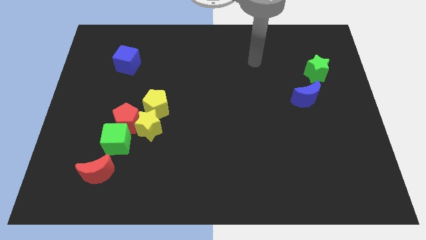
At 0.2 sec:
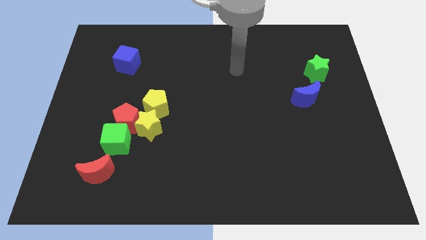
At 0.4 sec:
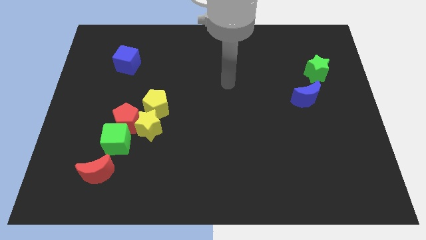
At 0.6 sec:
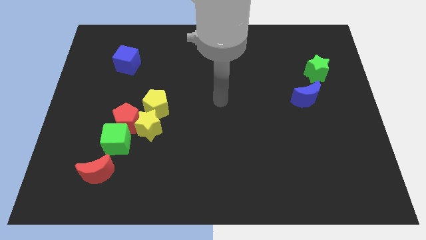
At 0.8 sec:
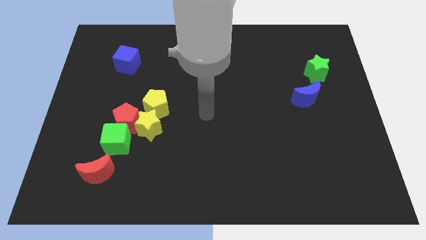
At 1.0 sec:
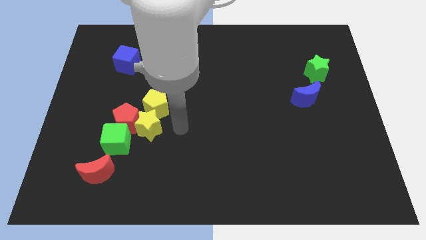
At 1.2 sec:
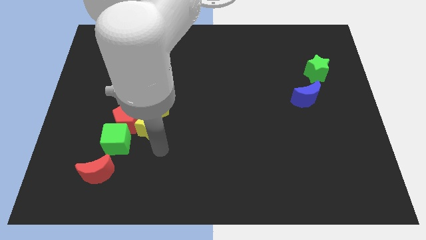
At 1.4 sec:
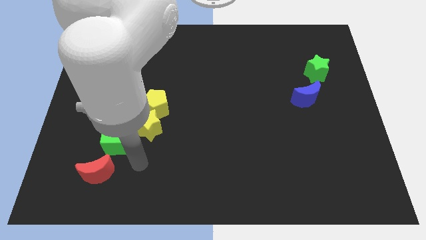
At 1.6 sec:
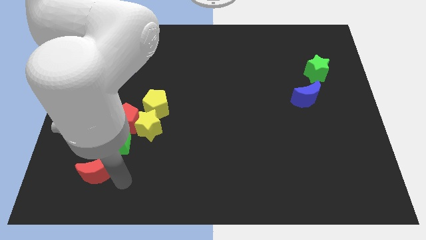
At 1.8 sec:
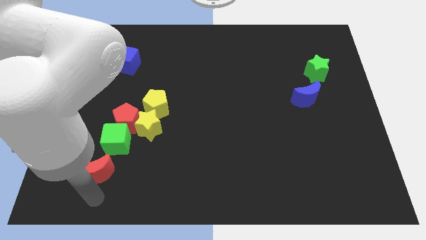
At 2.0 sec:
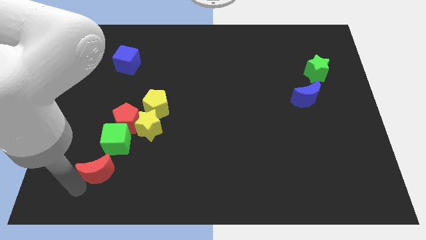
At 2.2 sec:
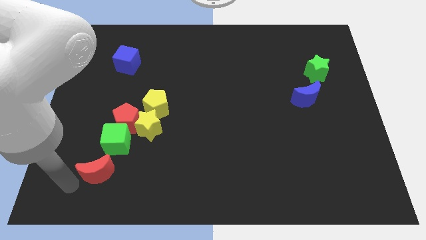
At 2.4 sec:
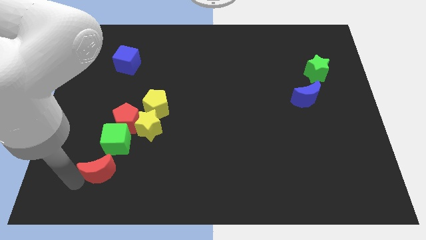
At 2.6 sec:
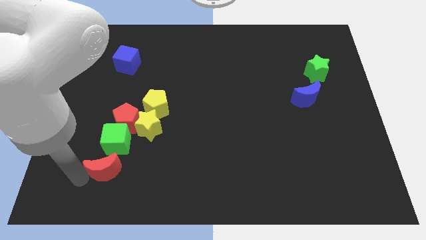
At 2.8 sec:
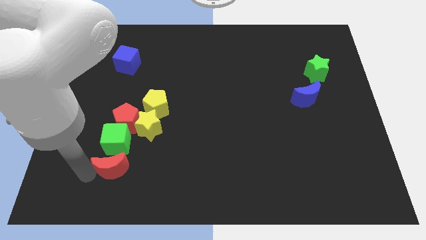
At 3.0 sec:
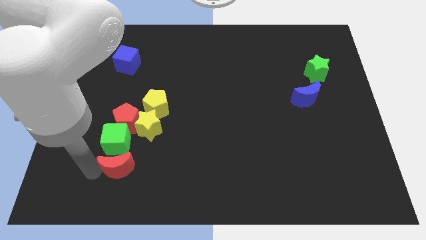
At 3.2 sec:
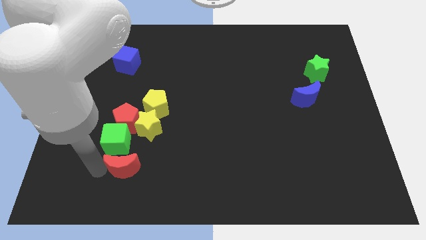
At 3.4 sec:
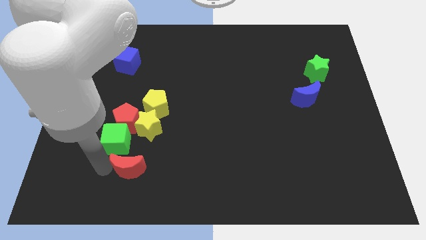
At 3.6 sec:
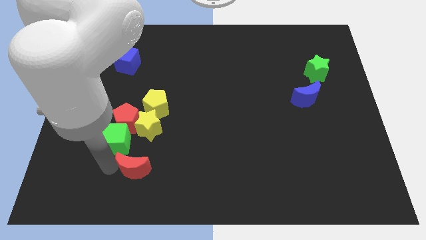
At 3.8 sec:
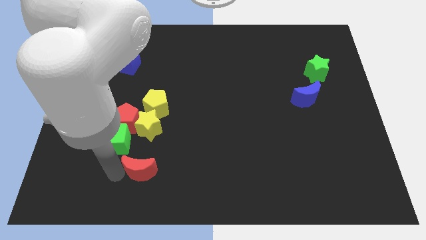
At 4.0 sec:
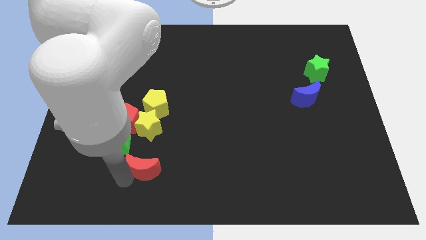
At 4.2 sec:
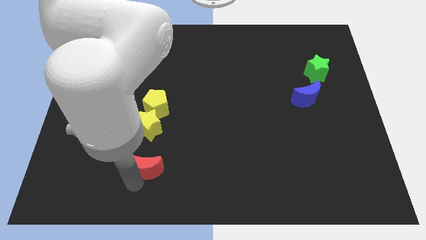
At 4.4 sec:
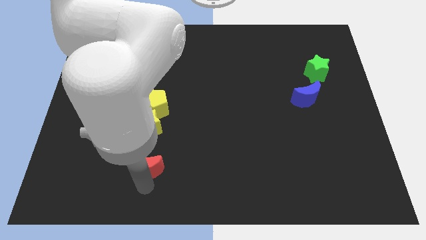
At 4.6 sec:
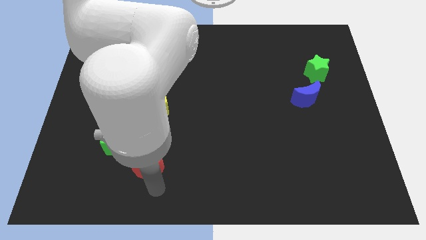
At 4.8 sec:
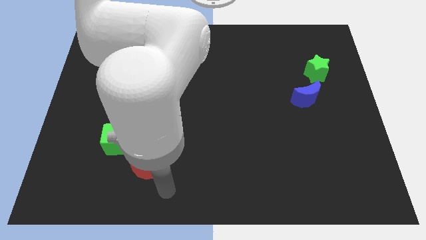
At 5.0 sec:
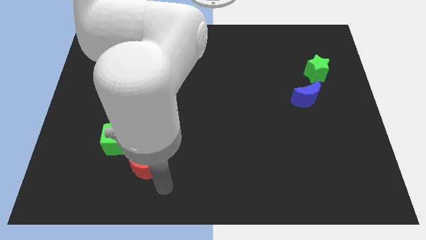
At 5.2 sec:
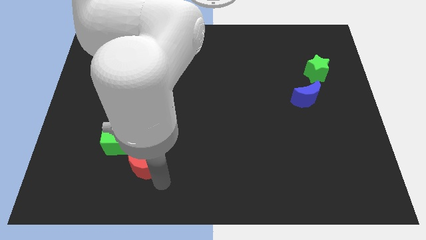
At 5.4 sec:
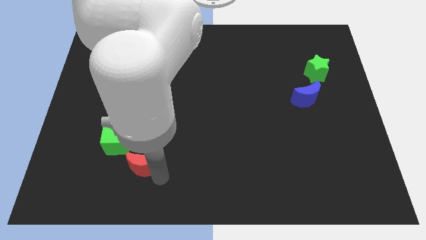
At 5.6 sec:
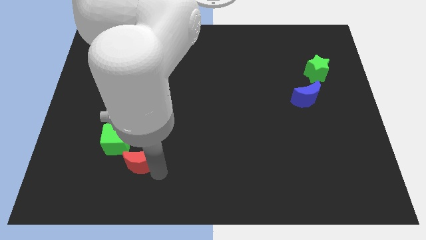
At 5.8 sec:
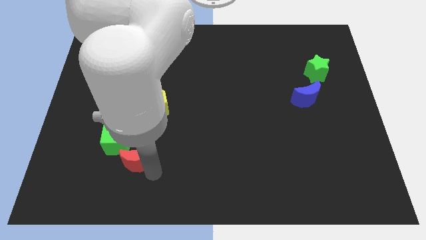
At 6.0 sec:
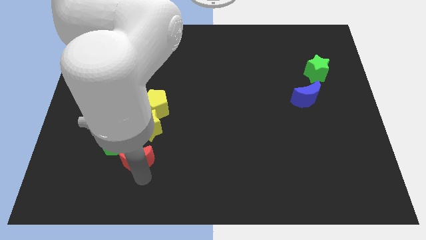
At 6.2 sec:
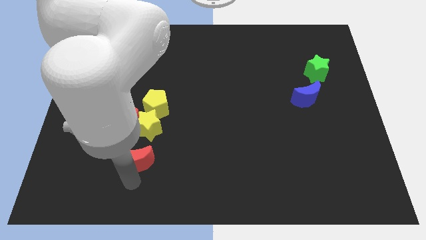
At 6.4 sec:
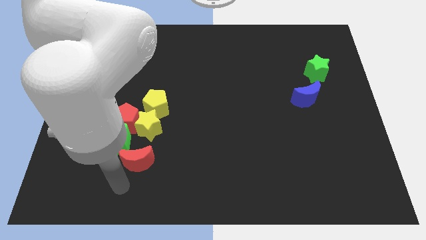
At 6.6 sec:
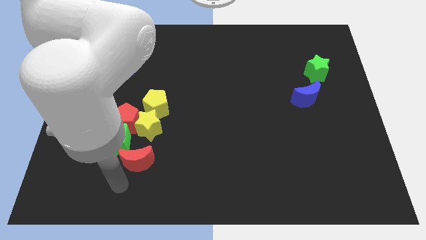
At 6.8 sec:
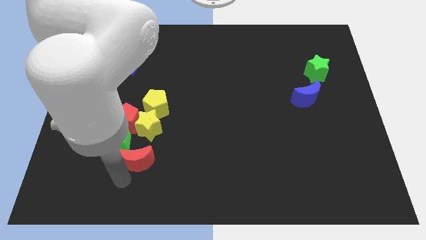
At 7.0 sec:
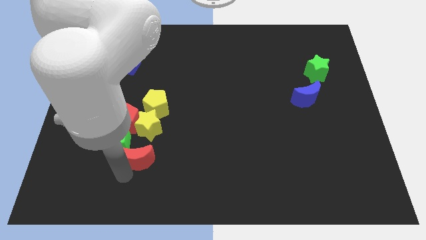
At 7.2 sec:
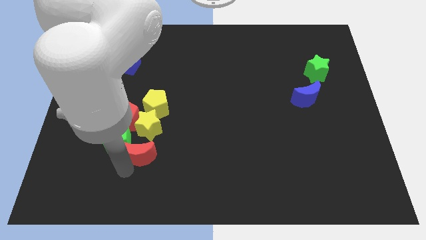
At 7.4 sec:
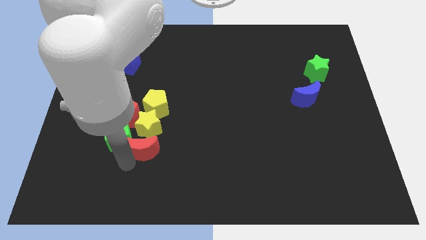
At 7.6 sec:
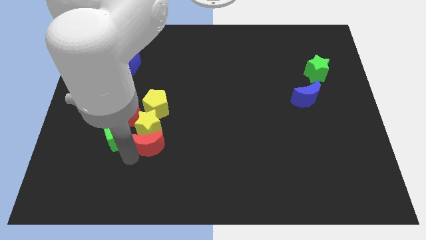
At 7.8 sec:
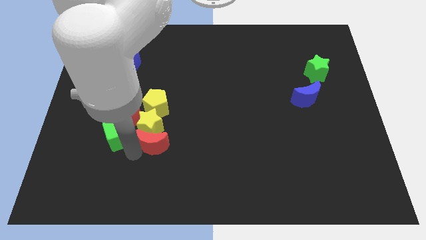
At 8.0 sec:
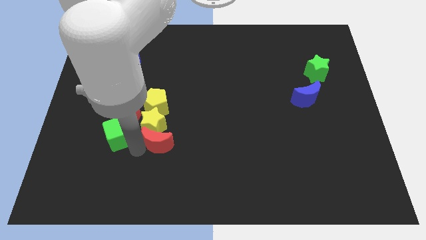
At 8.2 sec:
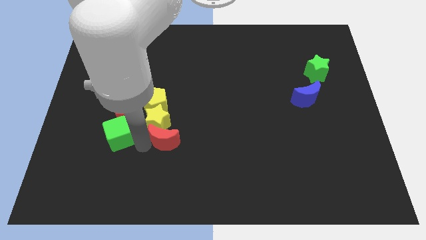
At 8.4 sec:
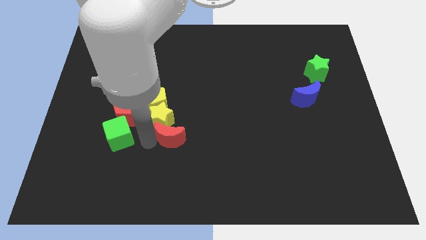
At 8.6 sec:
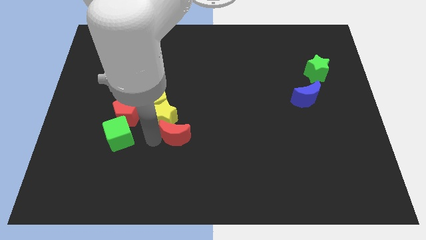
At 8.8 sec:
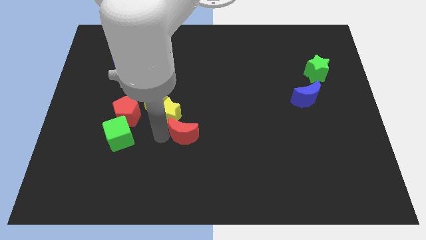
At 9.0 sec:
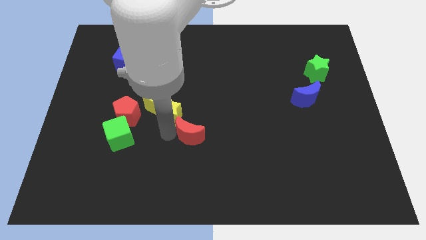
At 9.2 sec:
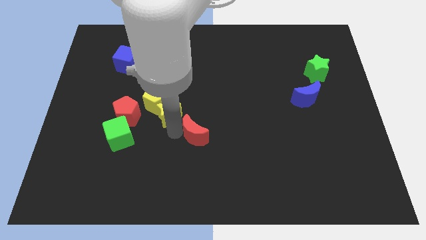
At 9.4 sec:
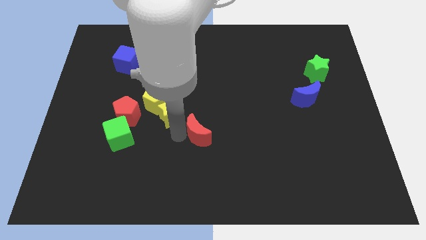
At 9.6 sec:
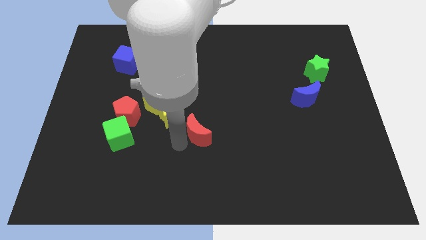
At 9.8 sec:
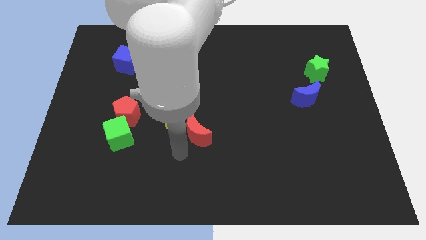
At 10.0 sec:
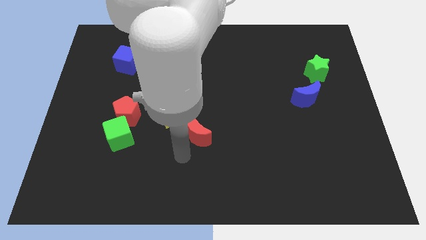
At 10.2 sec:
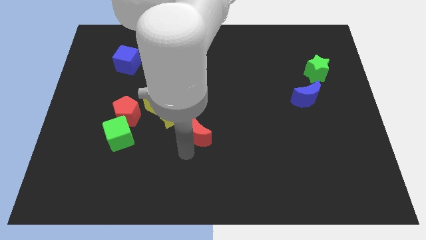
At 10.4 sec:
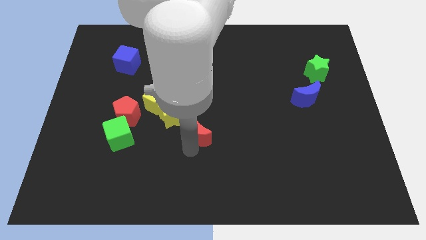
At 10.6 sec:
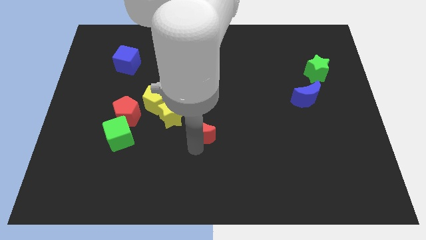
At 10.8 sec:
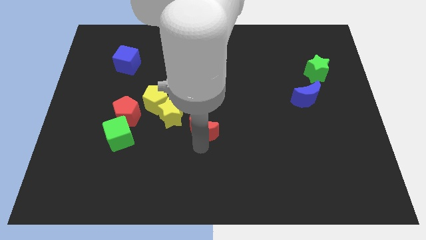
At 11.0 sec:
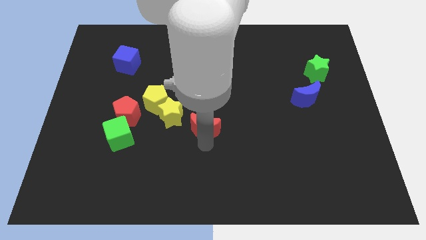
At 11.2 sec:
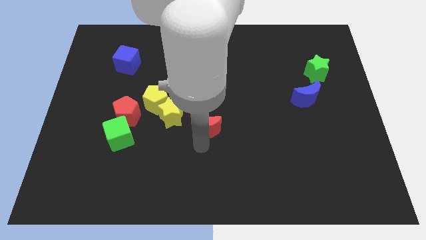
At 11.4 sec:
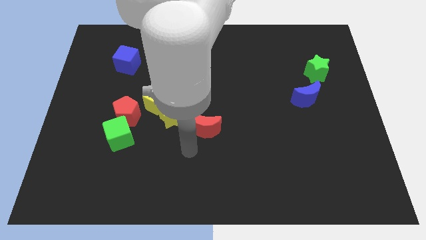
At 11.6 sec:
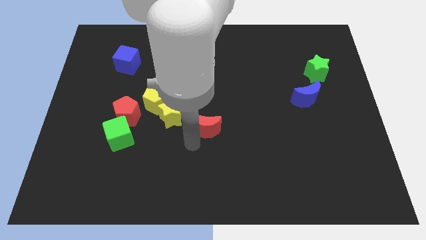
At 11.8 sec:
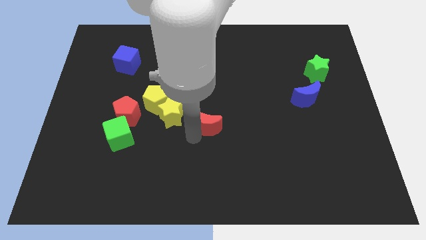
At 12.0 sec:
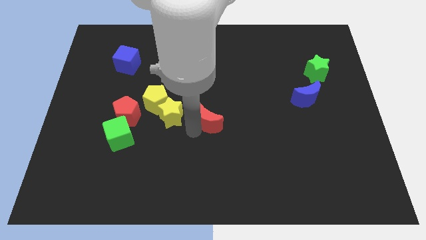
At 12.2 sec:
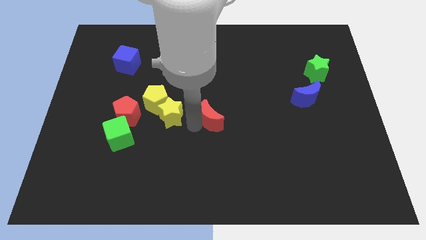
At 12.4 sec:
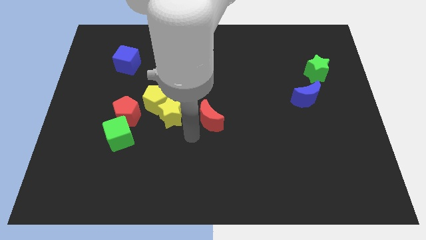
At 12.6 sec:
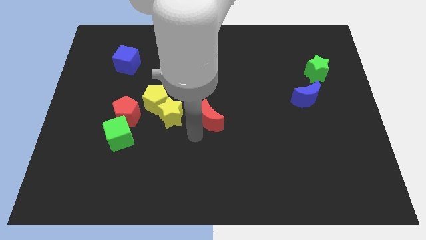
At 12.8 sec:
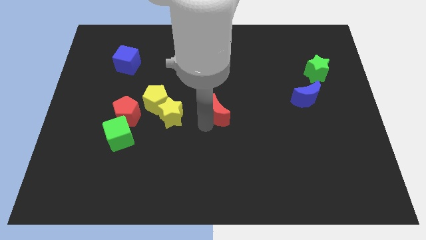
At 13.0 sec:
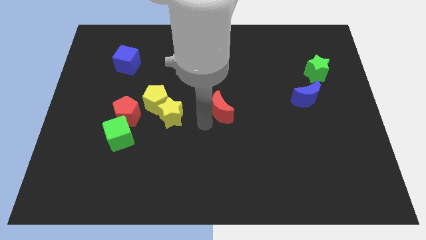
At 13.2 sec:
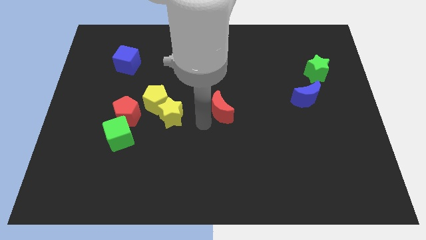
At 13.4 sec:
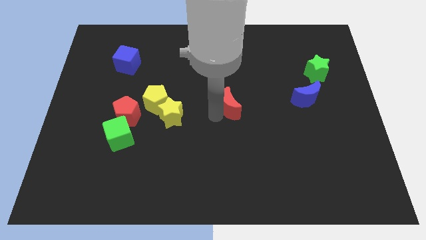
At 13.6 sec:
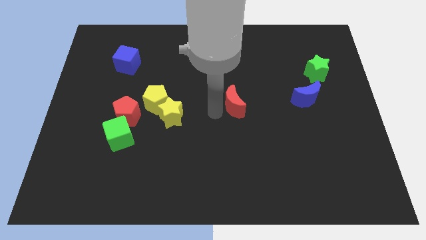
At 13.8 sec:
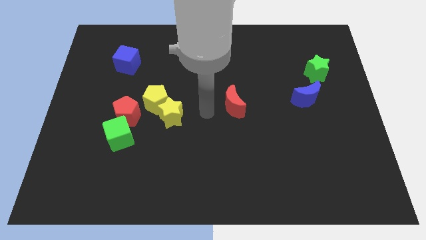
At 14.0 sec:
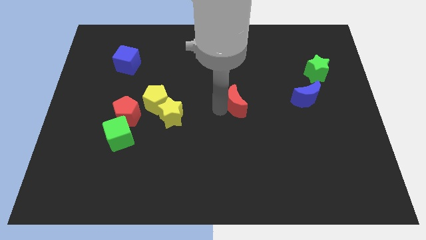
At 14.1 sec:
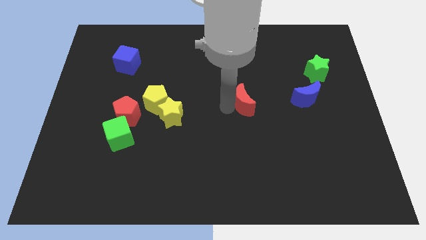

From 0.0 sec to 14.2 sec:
move the red moon to the left of the blue moon
